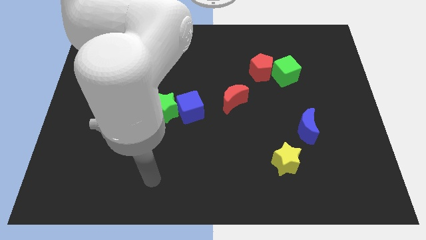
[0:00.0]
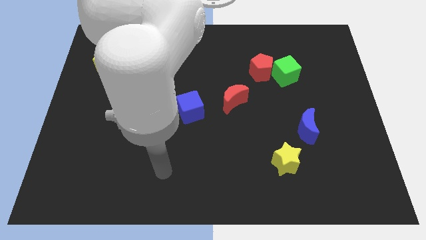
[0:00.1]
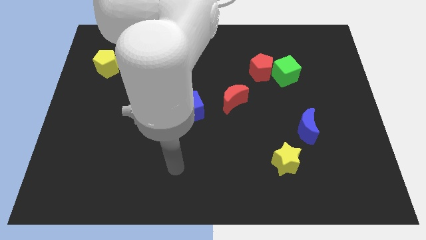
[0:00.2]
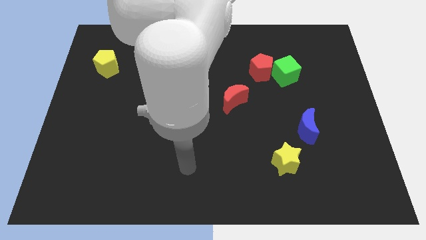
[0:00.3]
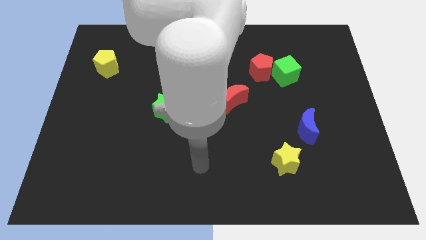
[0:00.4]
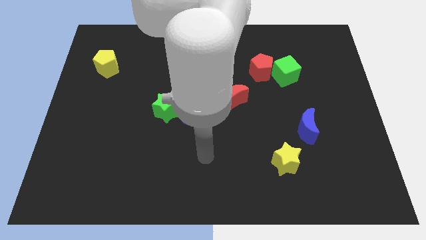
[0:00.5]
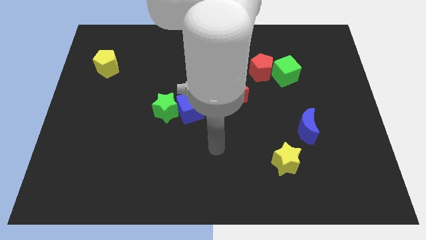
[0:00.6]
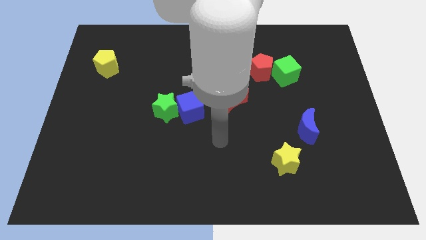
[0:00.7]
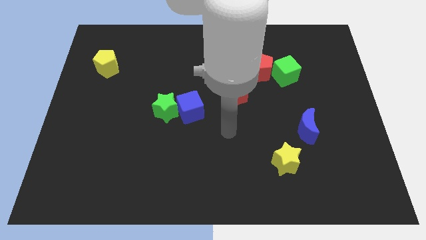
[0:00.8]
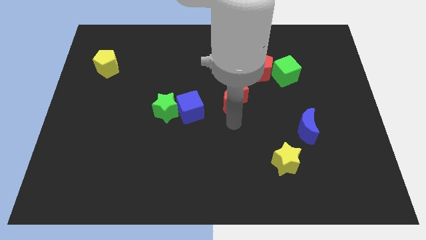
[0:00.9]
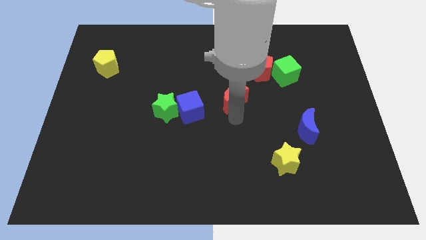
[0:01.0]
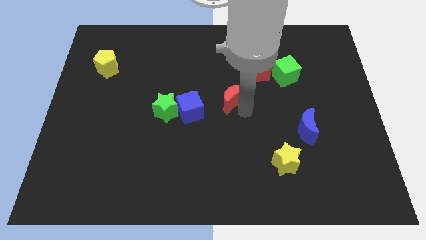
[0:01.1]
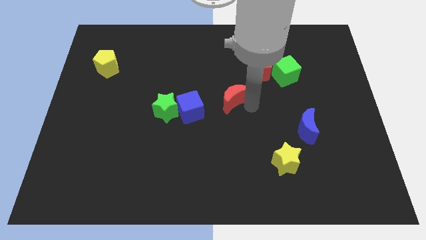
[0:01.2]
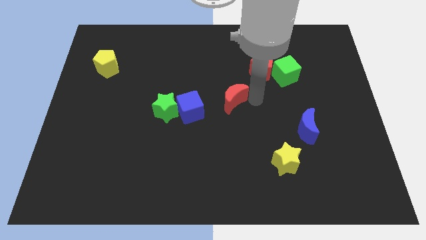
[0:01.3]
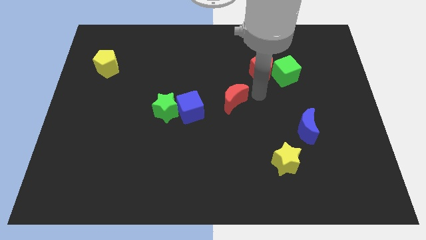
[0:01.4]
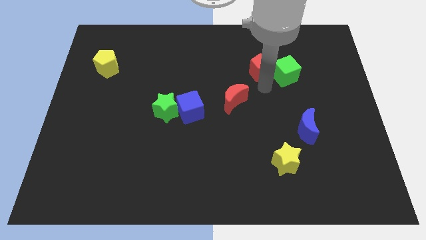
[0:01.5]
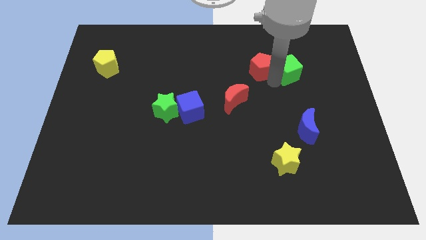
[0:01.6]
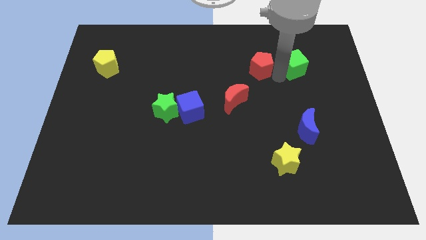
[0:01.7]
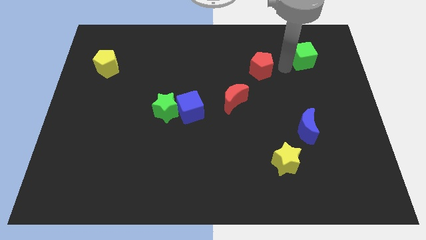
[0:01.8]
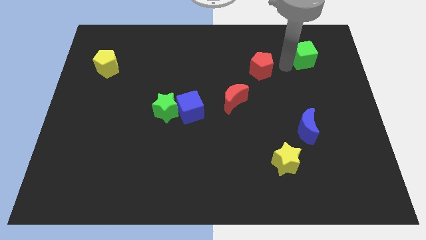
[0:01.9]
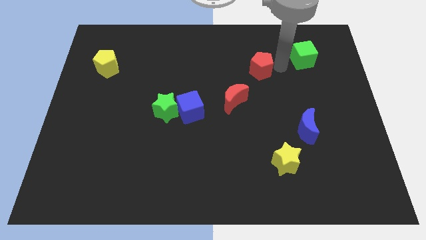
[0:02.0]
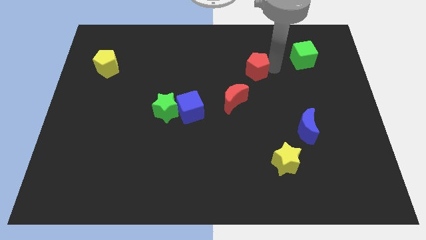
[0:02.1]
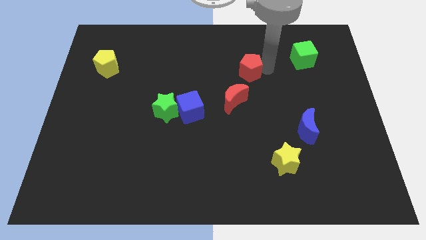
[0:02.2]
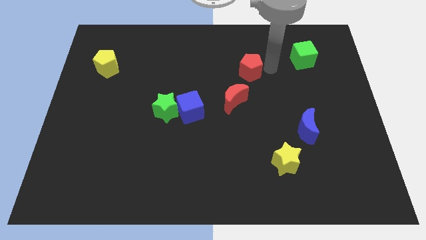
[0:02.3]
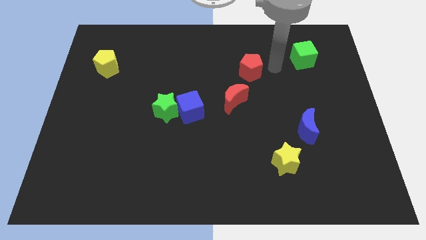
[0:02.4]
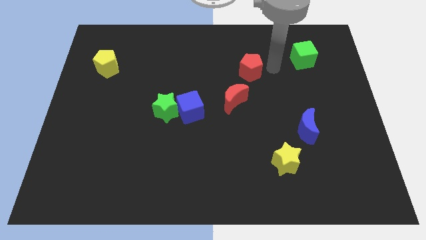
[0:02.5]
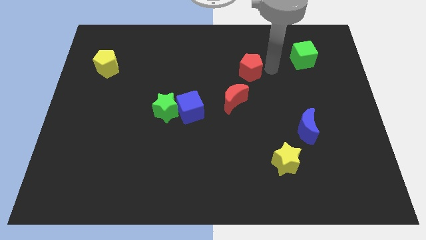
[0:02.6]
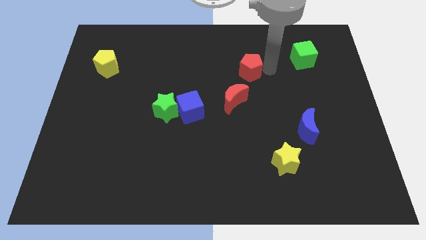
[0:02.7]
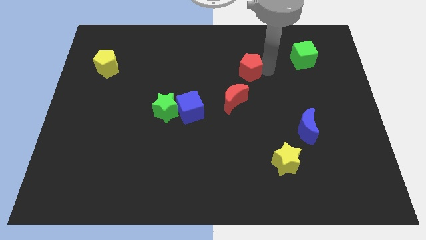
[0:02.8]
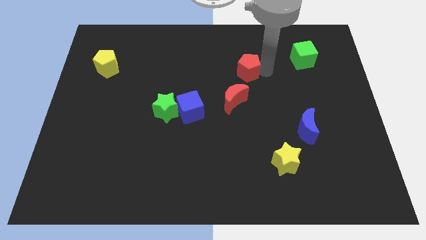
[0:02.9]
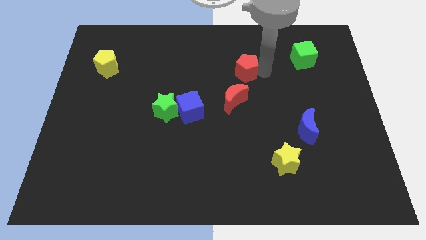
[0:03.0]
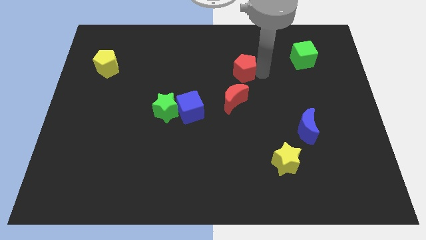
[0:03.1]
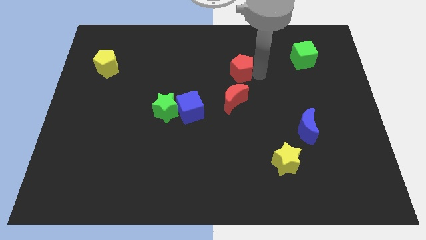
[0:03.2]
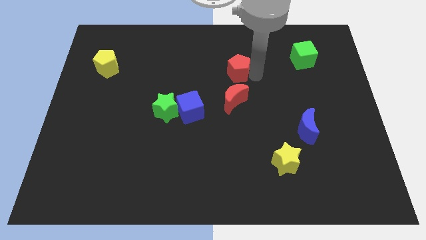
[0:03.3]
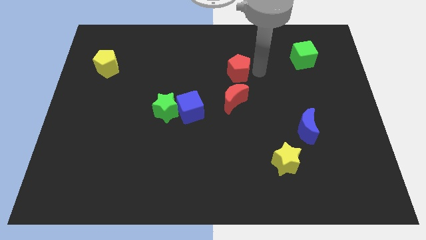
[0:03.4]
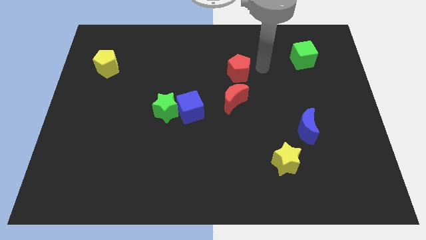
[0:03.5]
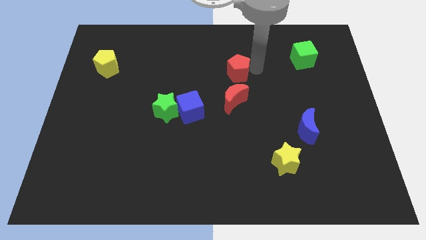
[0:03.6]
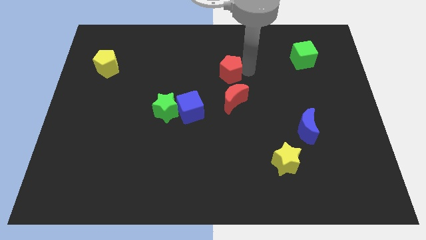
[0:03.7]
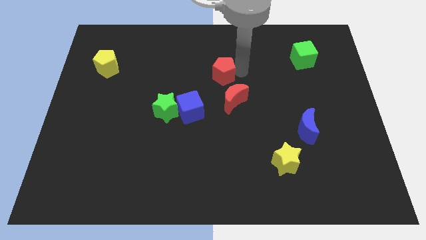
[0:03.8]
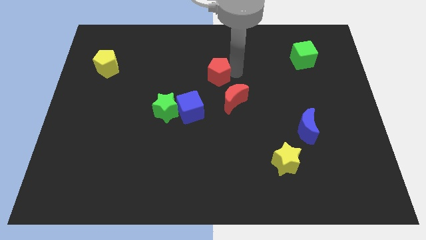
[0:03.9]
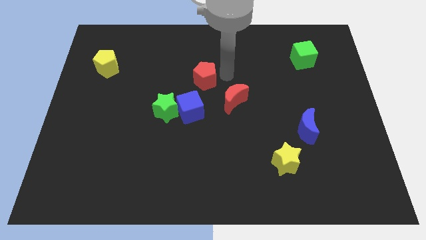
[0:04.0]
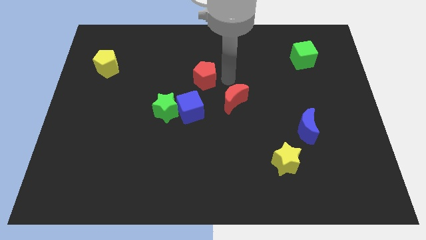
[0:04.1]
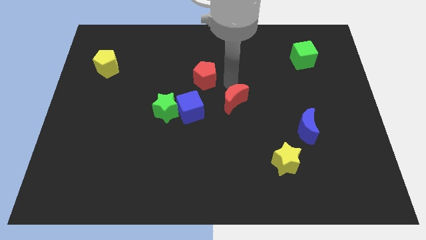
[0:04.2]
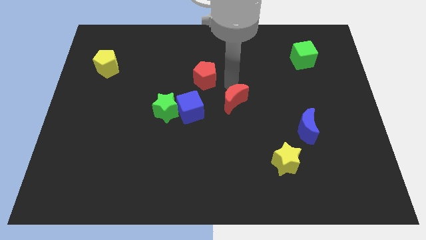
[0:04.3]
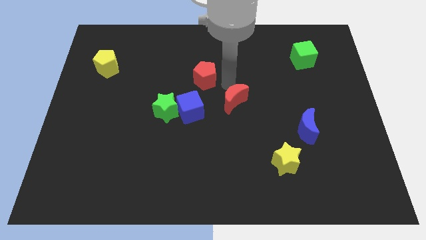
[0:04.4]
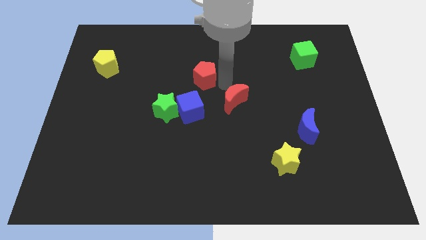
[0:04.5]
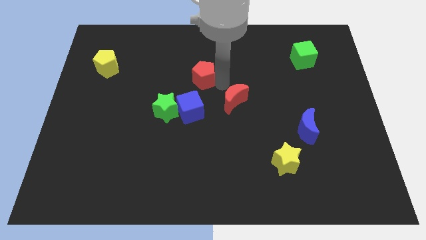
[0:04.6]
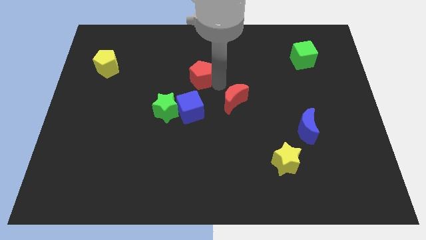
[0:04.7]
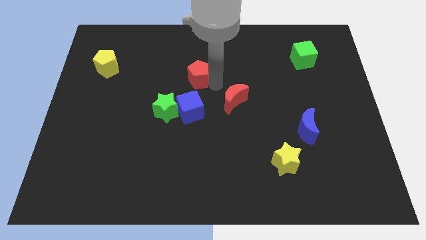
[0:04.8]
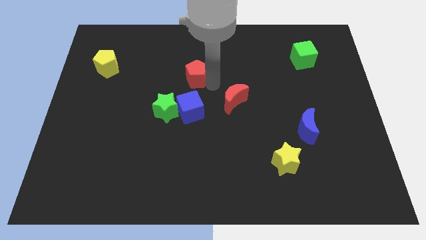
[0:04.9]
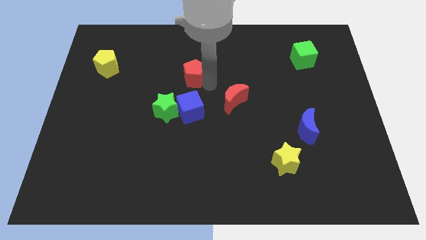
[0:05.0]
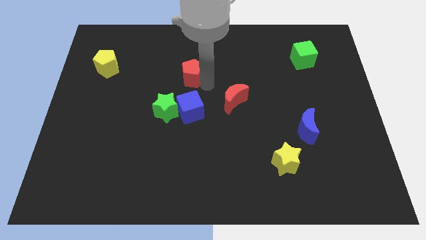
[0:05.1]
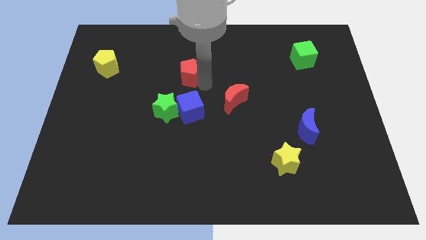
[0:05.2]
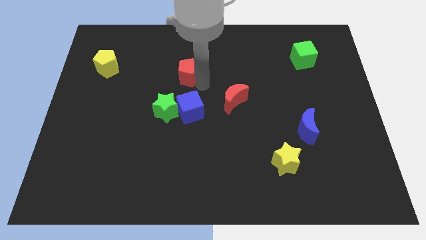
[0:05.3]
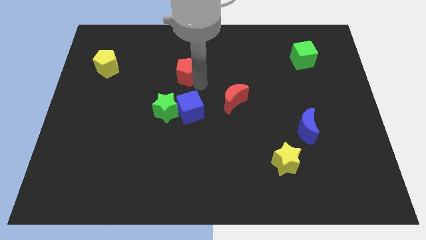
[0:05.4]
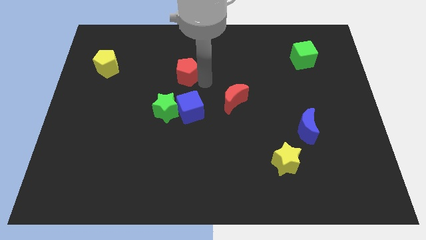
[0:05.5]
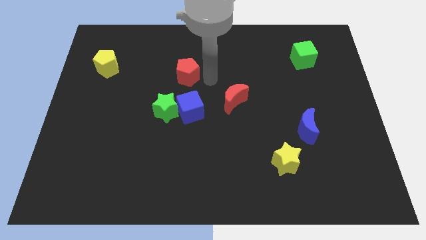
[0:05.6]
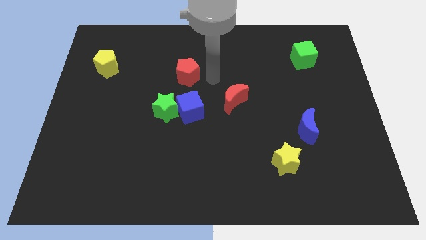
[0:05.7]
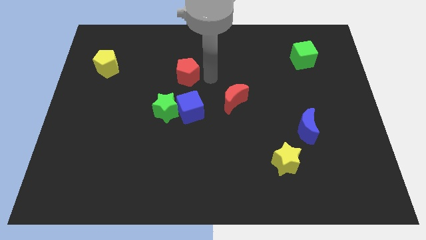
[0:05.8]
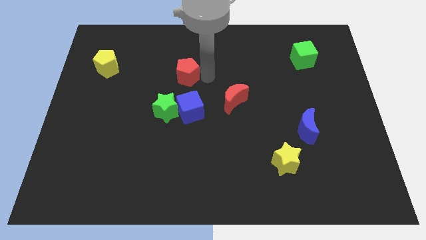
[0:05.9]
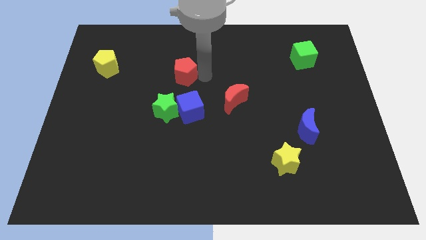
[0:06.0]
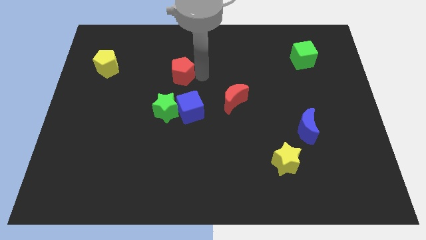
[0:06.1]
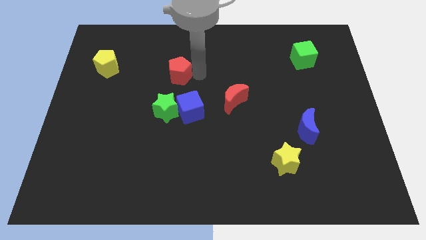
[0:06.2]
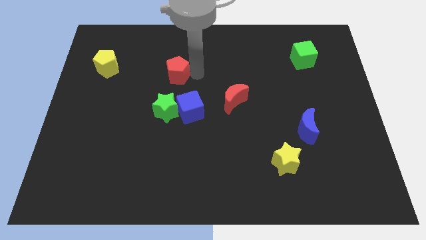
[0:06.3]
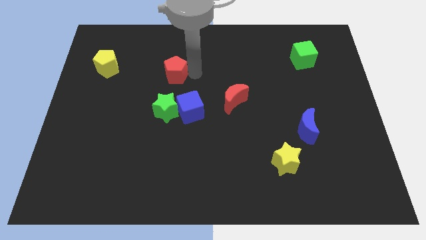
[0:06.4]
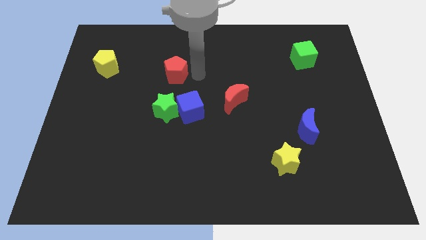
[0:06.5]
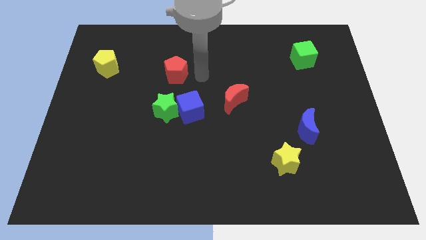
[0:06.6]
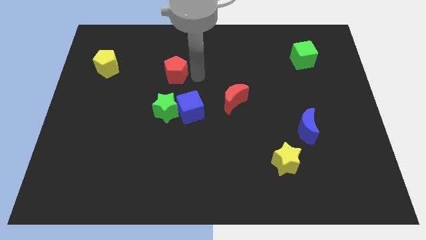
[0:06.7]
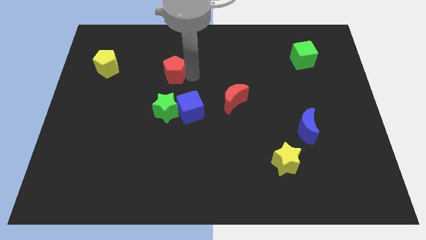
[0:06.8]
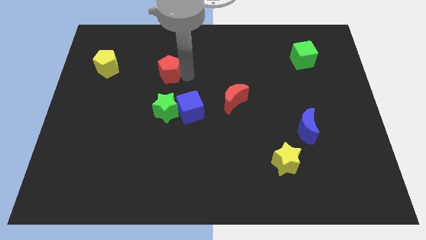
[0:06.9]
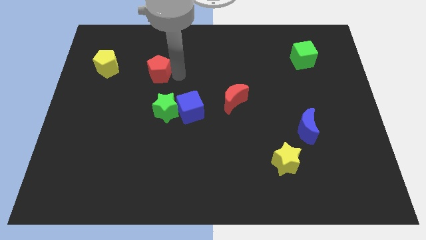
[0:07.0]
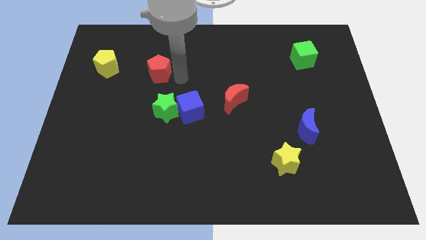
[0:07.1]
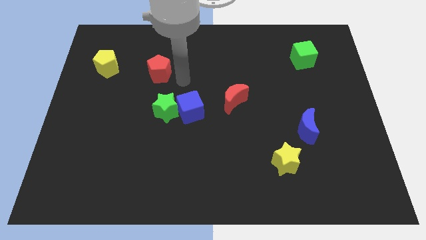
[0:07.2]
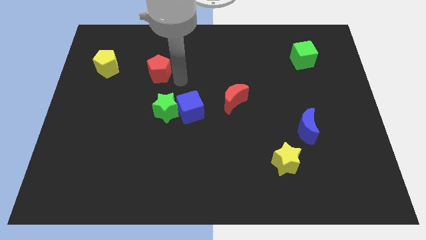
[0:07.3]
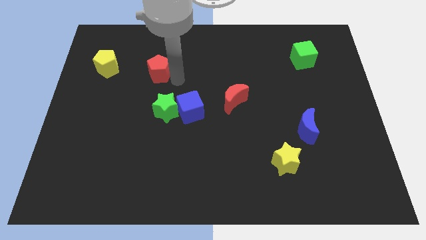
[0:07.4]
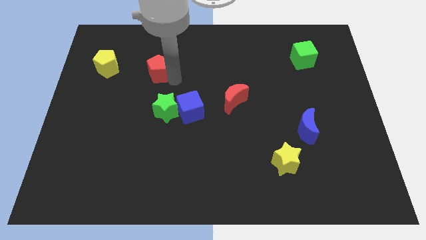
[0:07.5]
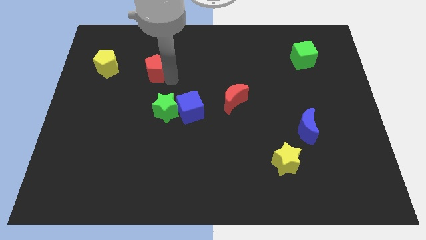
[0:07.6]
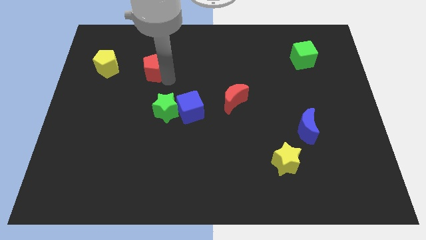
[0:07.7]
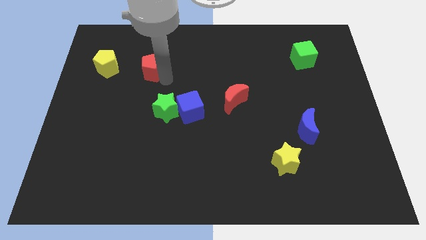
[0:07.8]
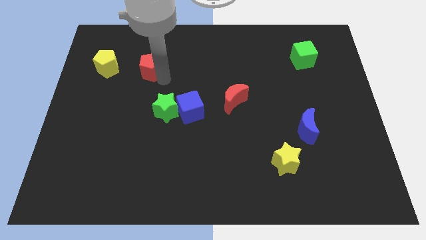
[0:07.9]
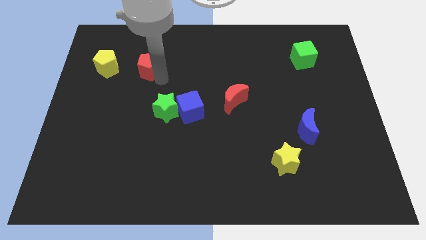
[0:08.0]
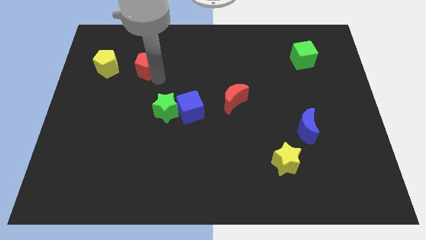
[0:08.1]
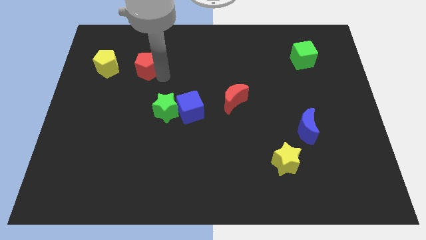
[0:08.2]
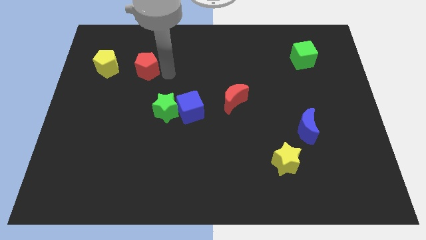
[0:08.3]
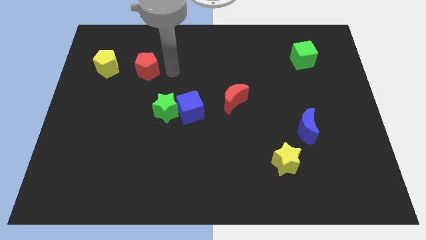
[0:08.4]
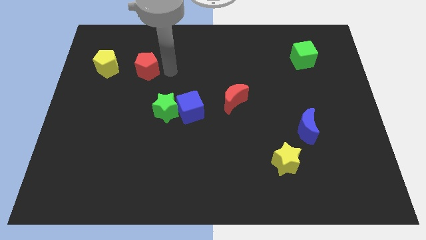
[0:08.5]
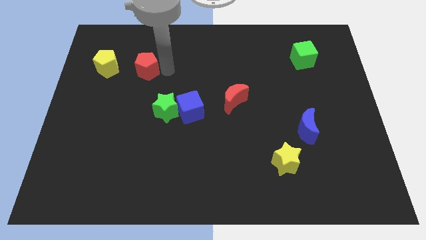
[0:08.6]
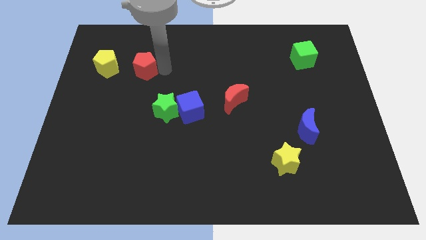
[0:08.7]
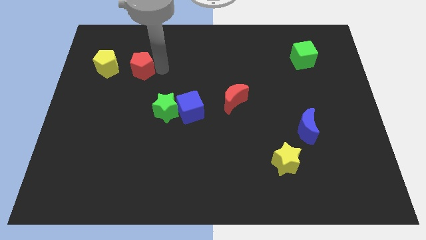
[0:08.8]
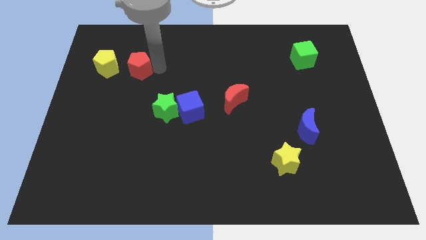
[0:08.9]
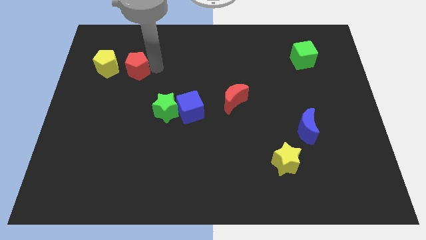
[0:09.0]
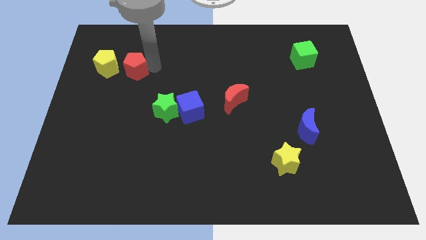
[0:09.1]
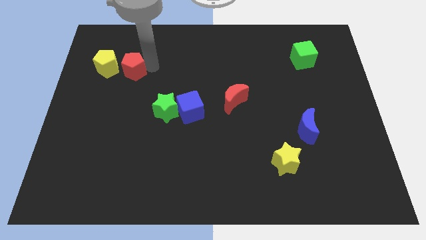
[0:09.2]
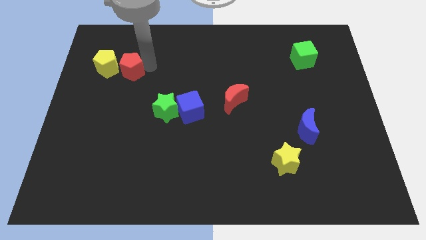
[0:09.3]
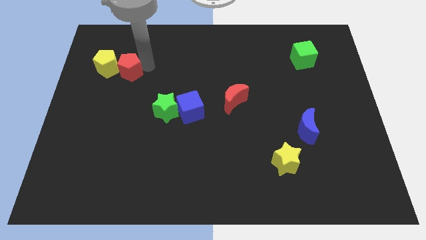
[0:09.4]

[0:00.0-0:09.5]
slide the red pentagon to the yellow pentagon
